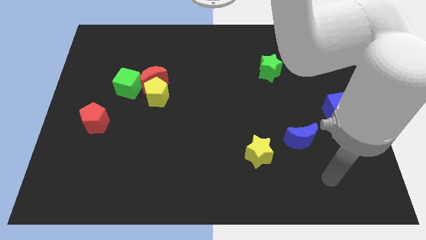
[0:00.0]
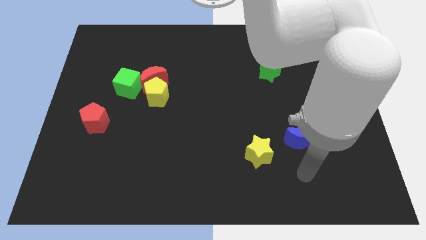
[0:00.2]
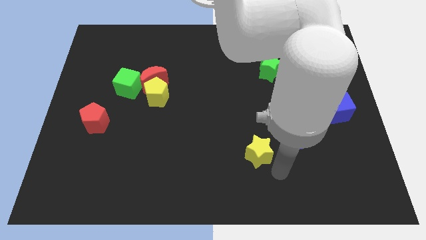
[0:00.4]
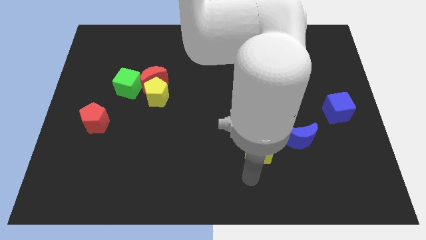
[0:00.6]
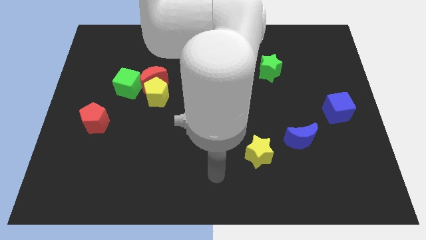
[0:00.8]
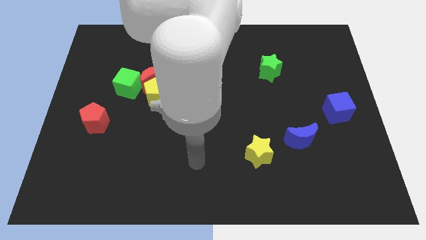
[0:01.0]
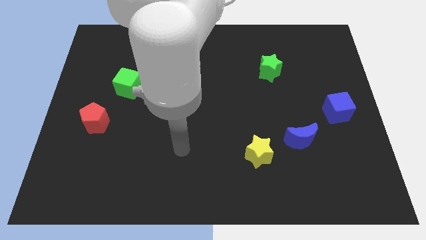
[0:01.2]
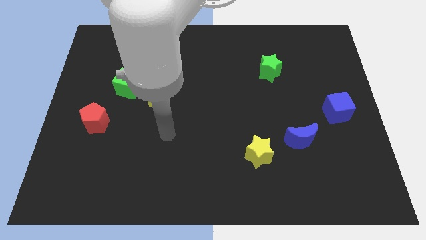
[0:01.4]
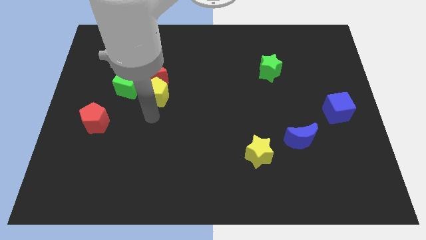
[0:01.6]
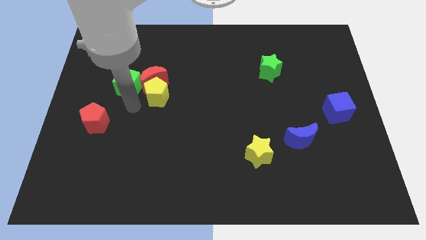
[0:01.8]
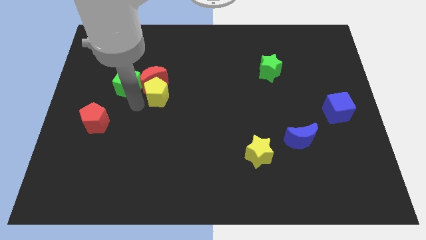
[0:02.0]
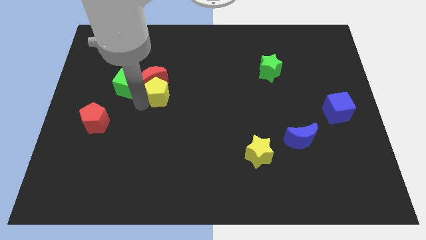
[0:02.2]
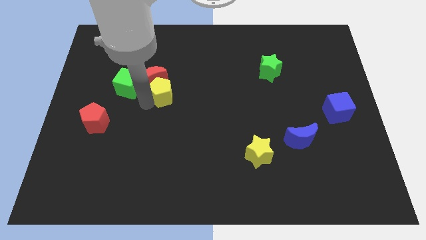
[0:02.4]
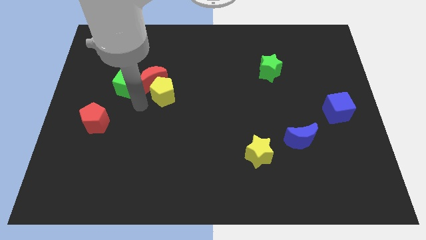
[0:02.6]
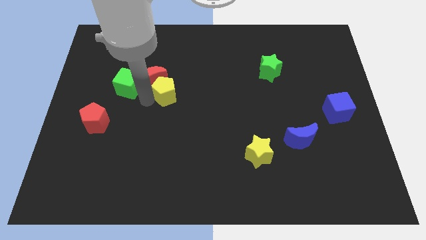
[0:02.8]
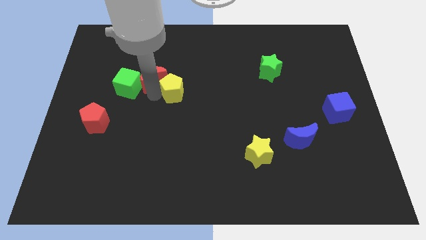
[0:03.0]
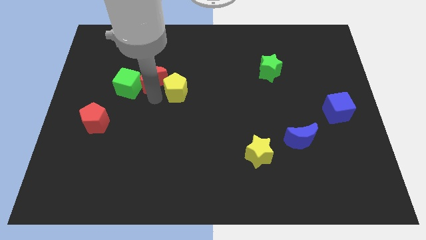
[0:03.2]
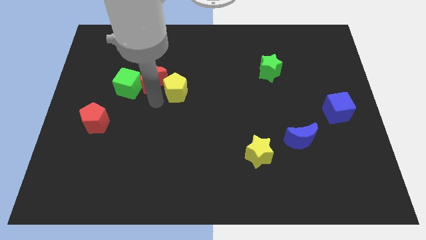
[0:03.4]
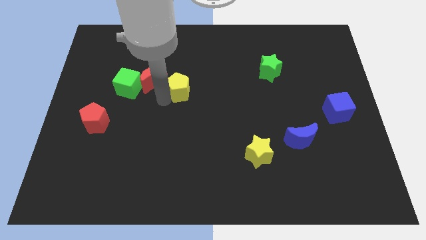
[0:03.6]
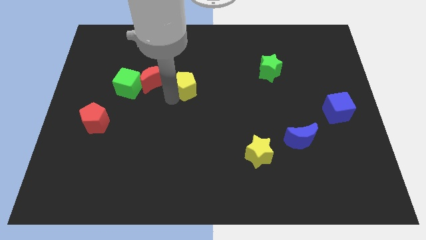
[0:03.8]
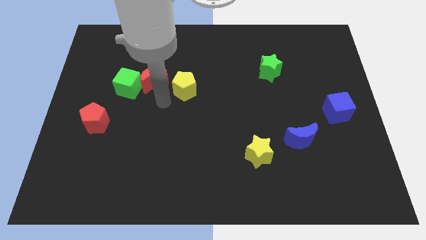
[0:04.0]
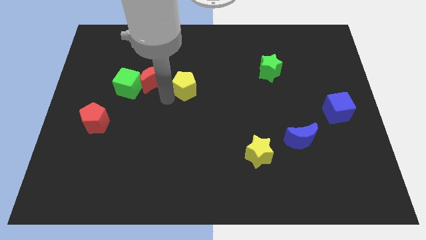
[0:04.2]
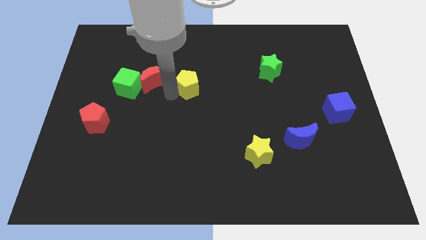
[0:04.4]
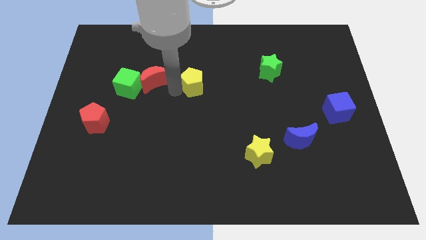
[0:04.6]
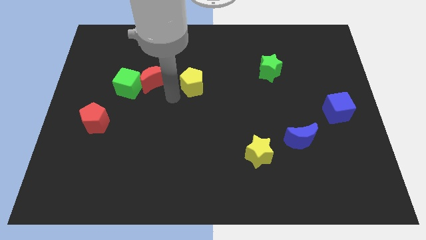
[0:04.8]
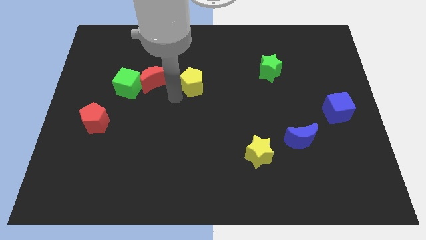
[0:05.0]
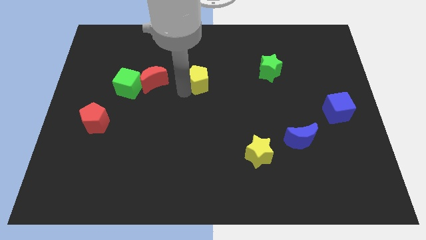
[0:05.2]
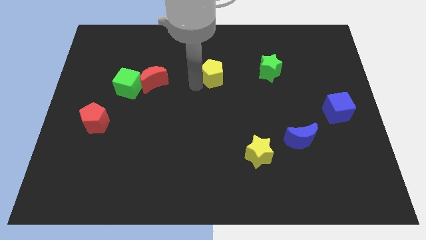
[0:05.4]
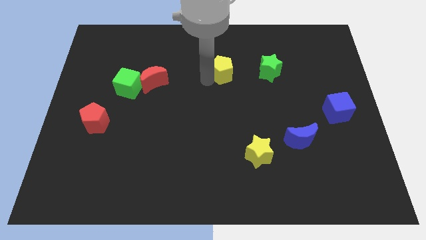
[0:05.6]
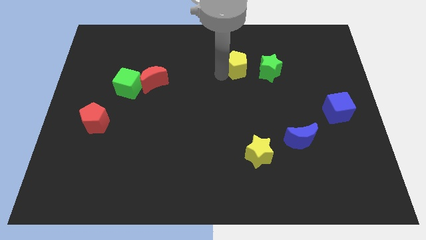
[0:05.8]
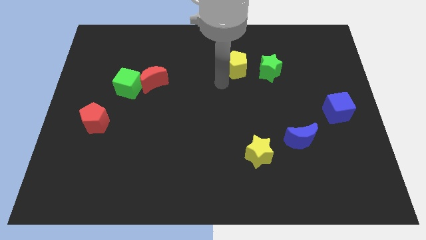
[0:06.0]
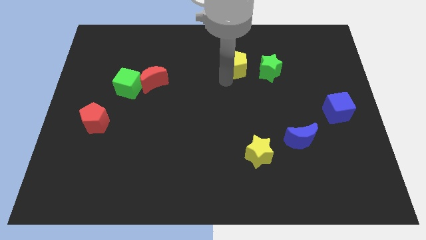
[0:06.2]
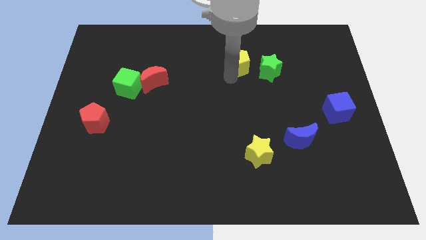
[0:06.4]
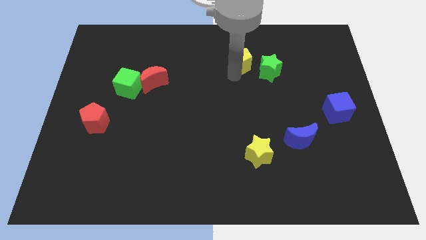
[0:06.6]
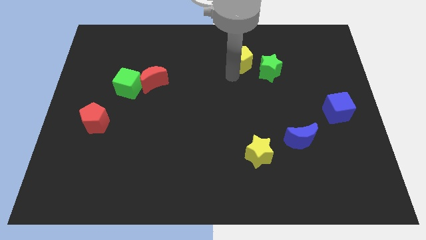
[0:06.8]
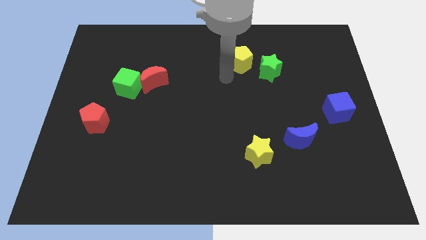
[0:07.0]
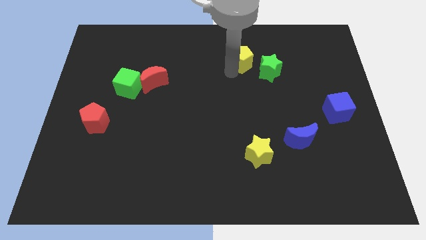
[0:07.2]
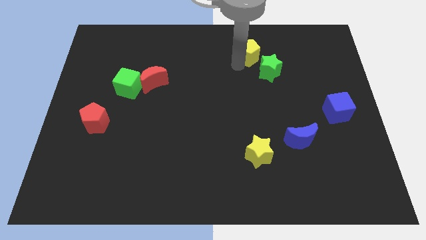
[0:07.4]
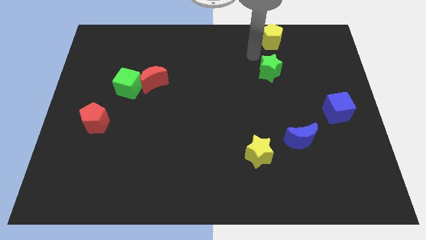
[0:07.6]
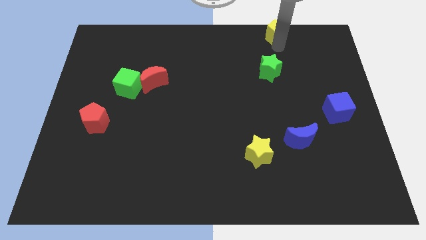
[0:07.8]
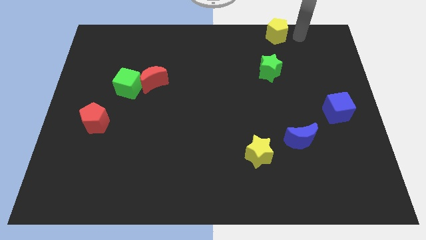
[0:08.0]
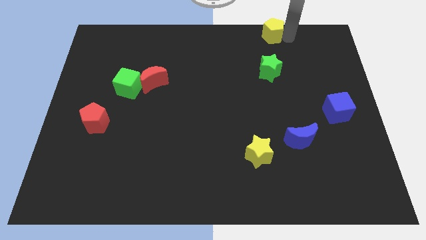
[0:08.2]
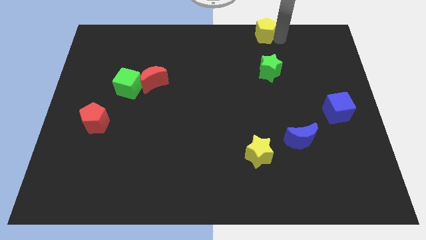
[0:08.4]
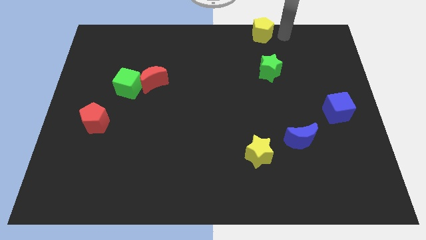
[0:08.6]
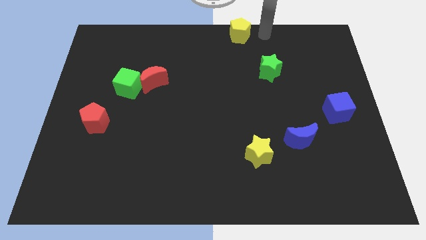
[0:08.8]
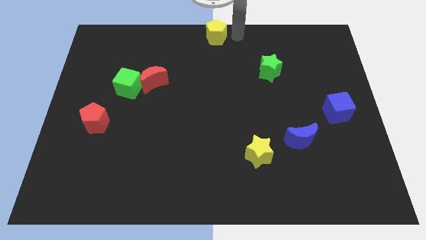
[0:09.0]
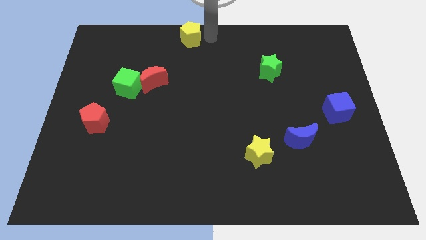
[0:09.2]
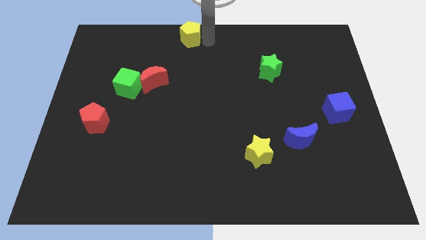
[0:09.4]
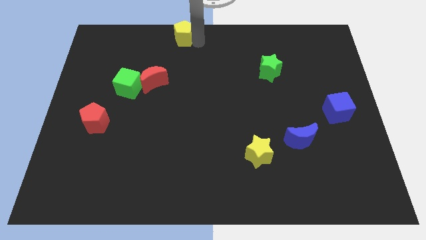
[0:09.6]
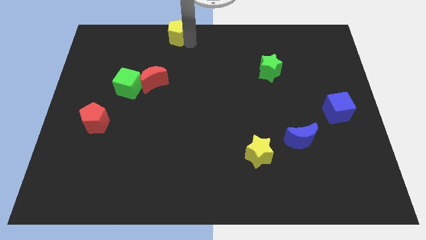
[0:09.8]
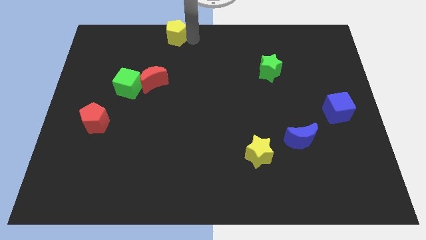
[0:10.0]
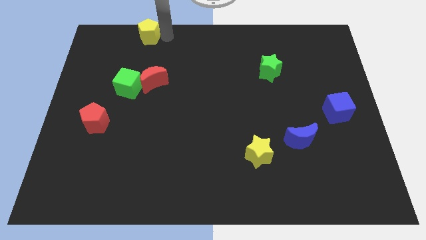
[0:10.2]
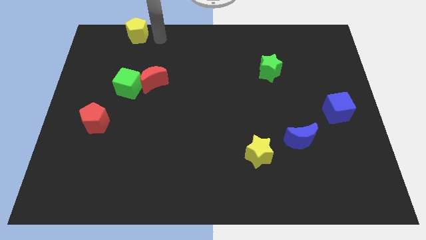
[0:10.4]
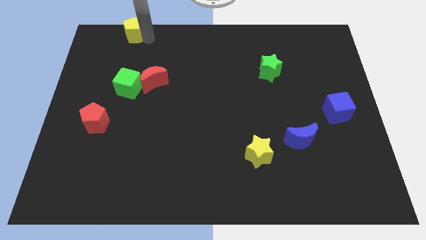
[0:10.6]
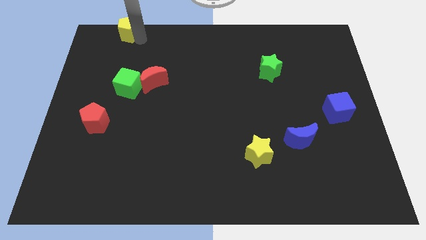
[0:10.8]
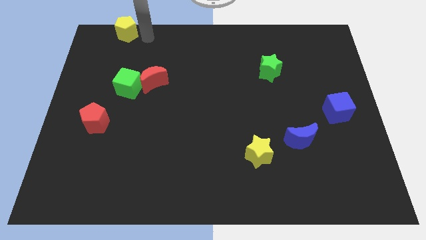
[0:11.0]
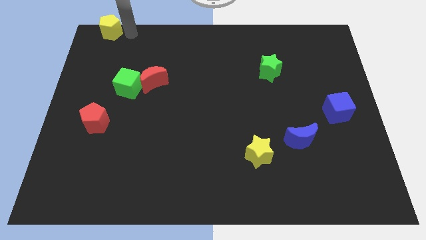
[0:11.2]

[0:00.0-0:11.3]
put the yellow pentagon to the upper left corner

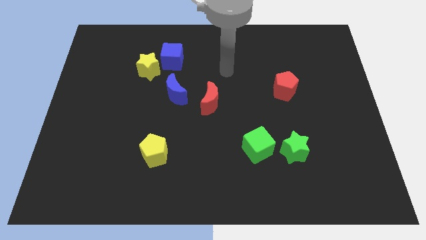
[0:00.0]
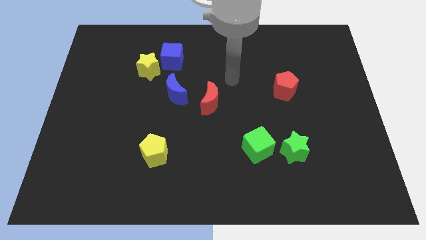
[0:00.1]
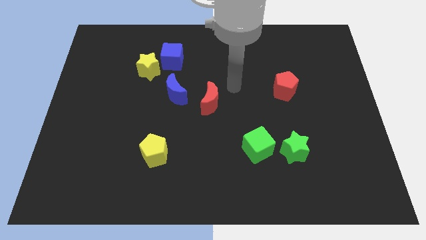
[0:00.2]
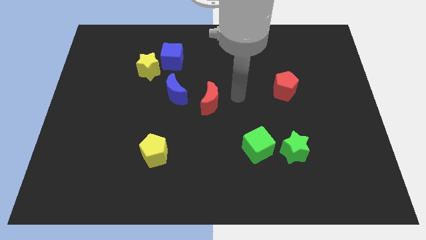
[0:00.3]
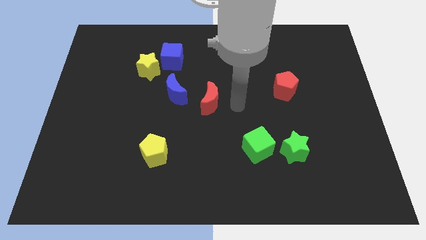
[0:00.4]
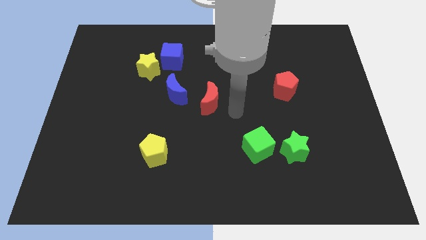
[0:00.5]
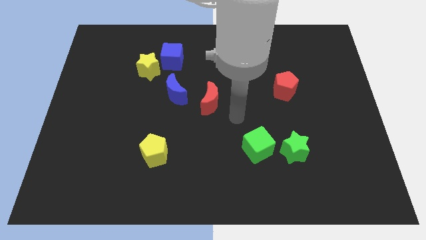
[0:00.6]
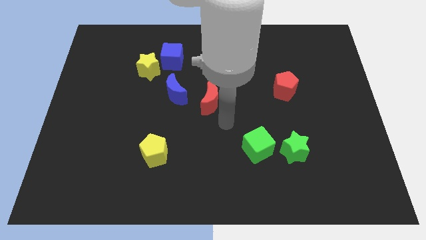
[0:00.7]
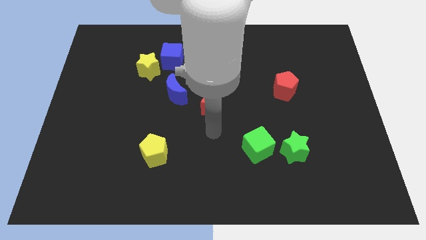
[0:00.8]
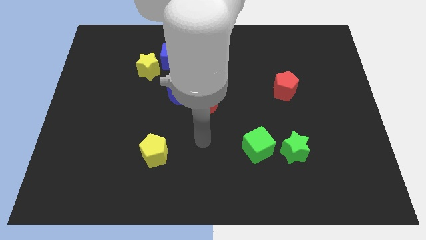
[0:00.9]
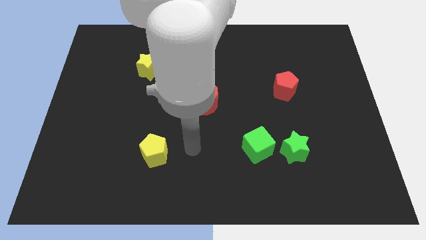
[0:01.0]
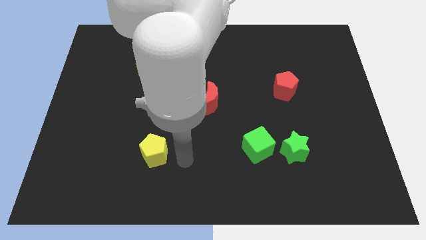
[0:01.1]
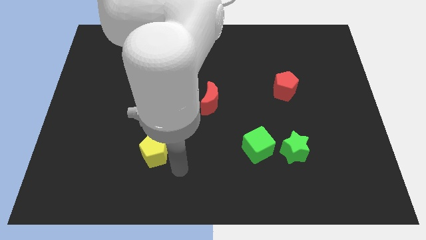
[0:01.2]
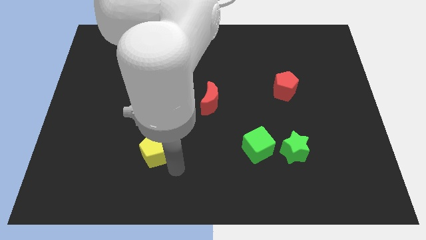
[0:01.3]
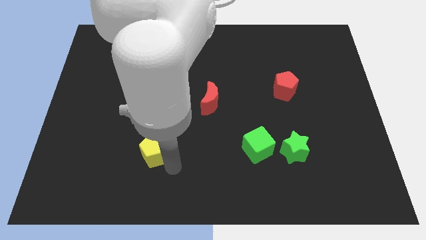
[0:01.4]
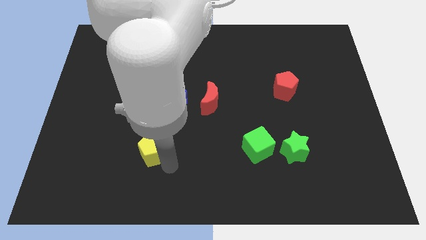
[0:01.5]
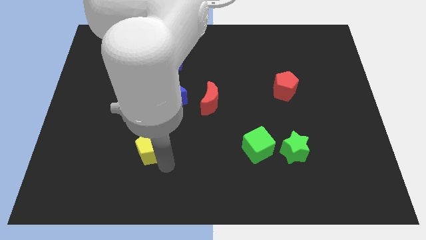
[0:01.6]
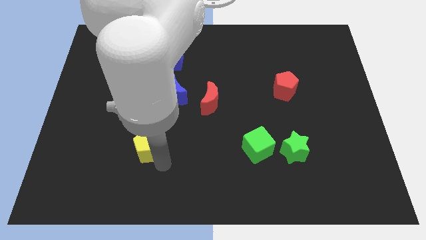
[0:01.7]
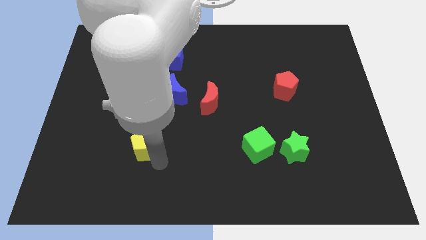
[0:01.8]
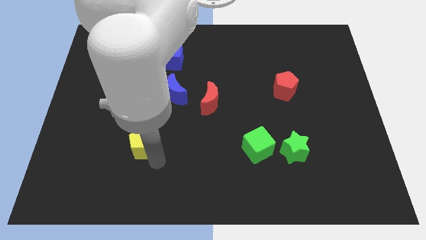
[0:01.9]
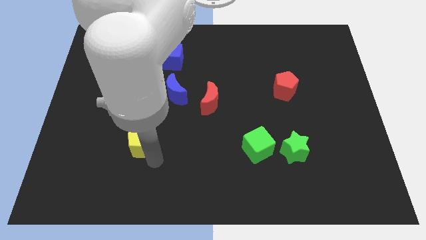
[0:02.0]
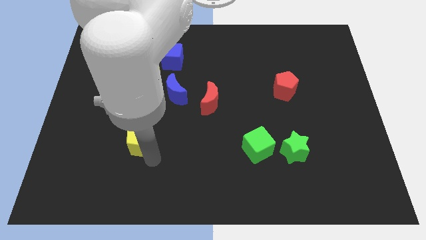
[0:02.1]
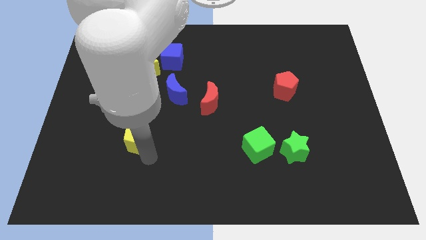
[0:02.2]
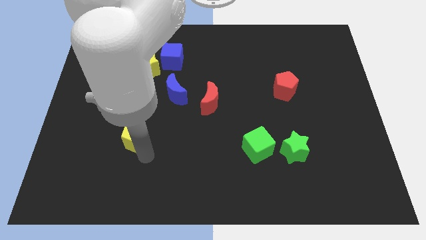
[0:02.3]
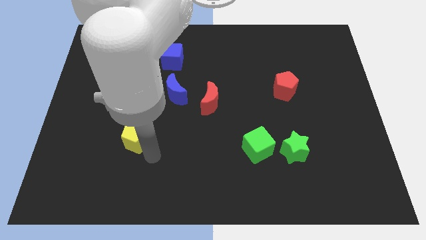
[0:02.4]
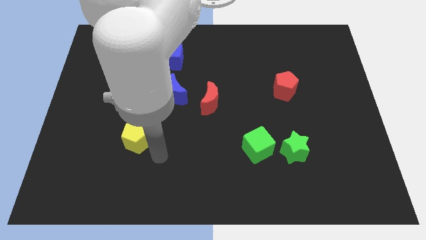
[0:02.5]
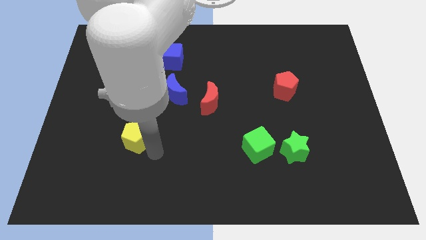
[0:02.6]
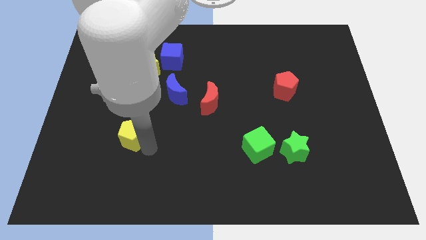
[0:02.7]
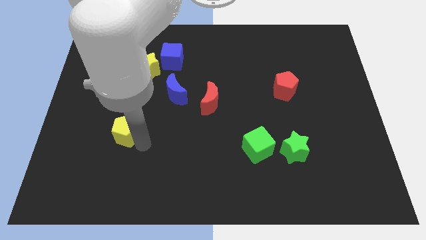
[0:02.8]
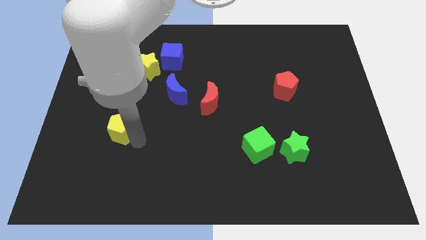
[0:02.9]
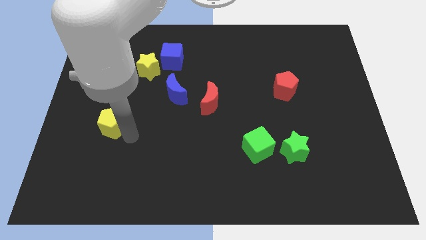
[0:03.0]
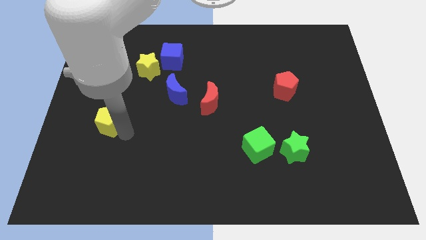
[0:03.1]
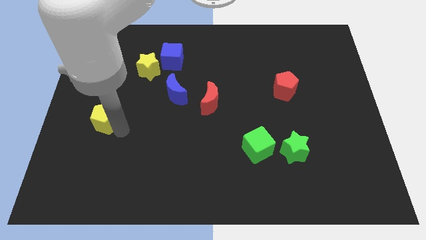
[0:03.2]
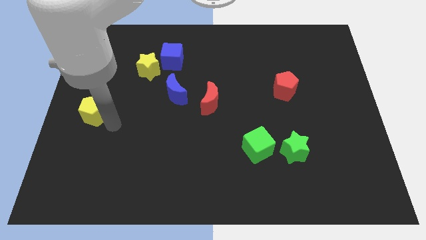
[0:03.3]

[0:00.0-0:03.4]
push the yellow pentagon to the left side
